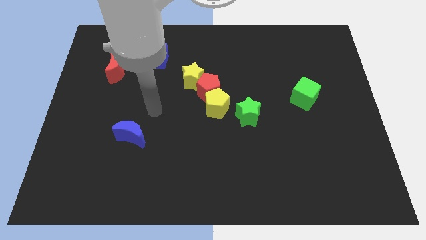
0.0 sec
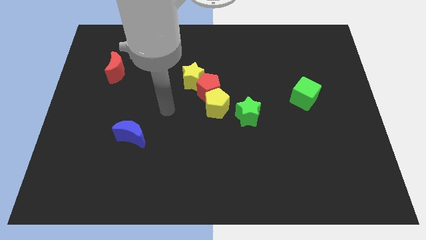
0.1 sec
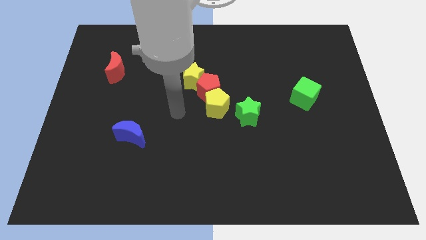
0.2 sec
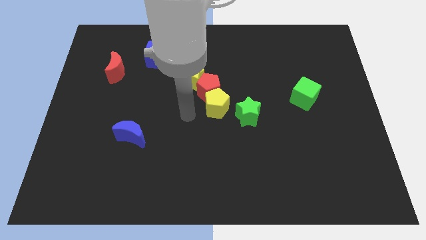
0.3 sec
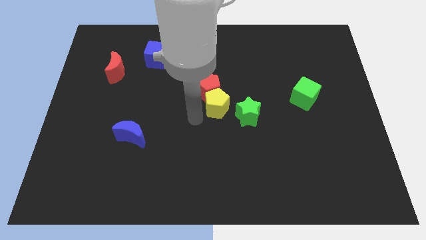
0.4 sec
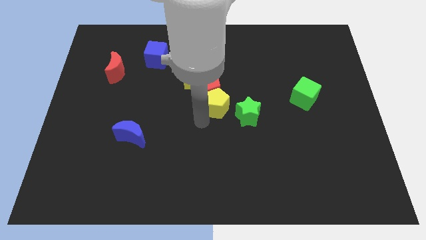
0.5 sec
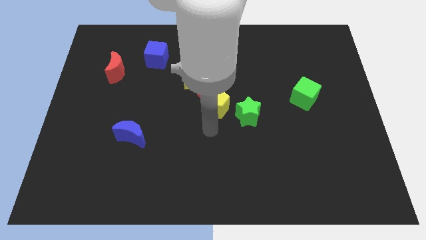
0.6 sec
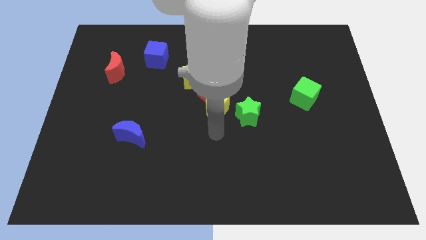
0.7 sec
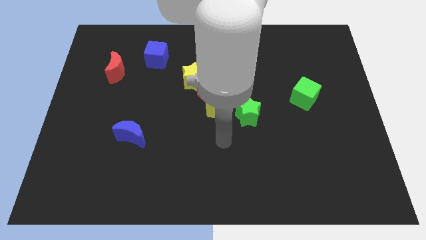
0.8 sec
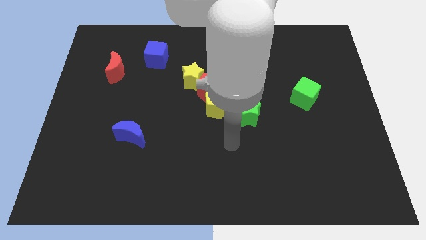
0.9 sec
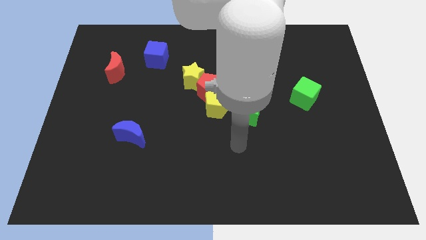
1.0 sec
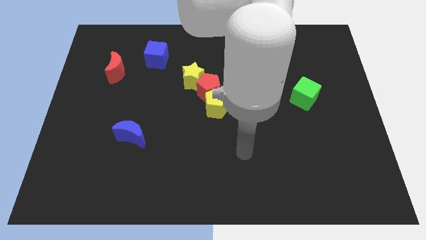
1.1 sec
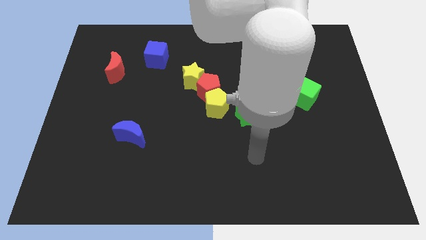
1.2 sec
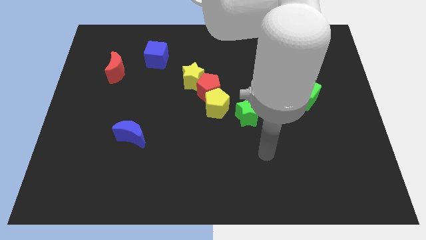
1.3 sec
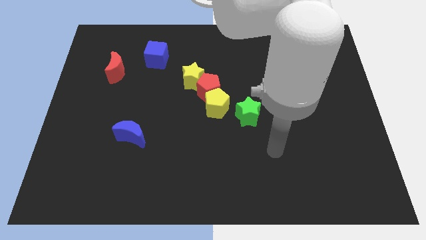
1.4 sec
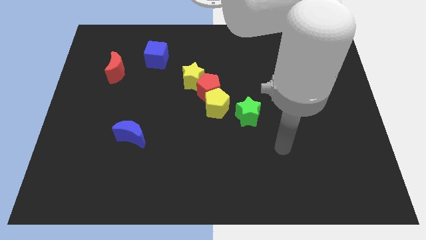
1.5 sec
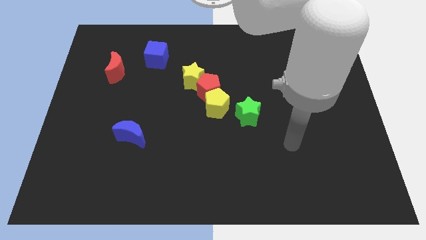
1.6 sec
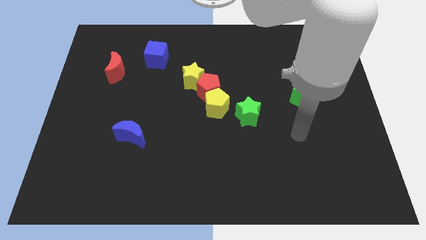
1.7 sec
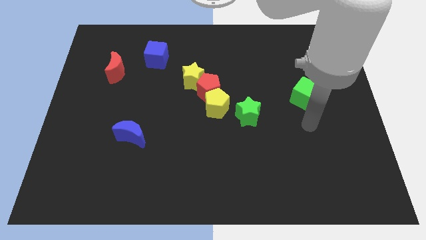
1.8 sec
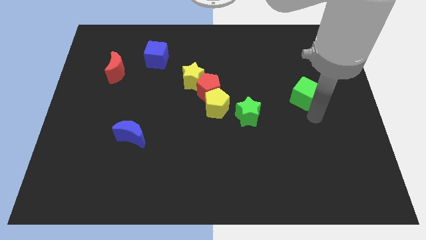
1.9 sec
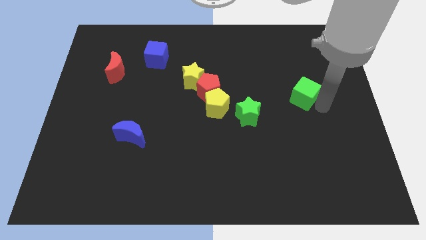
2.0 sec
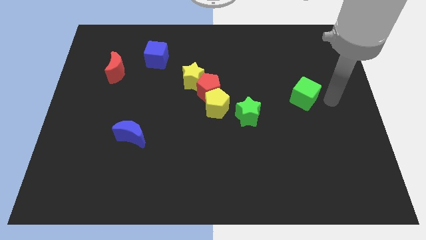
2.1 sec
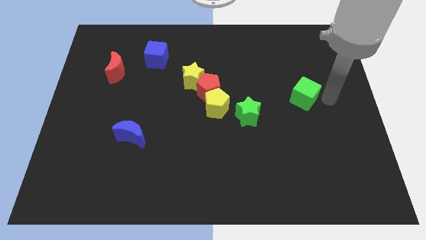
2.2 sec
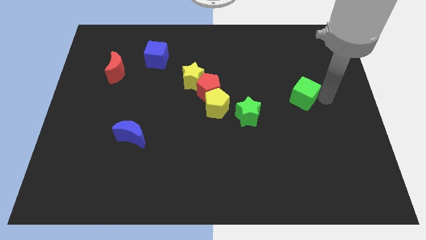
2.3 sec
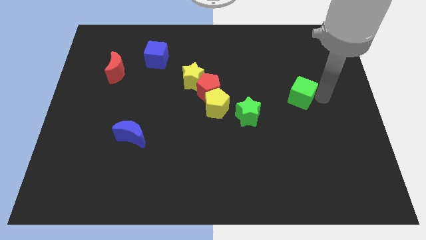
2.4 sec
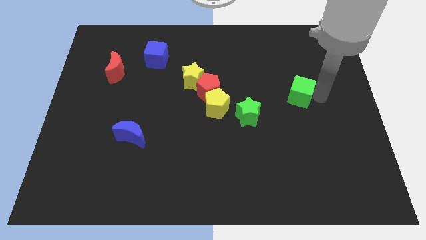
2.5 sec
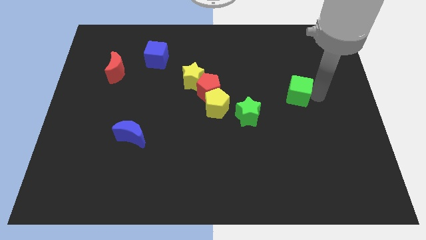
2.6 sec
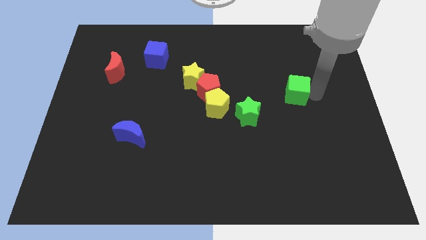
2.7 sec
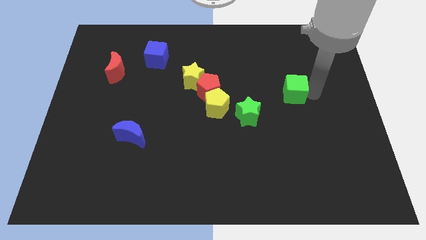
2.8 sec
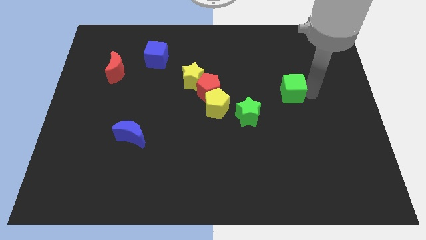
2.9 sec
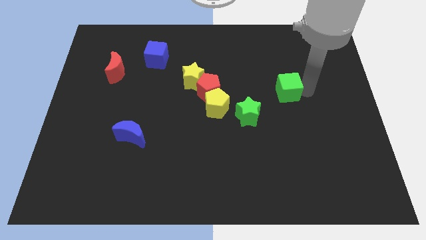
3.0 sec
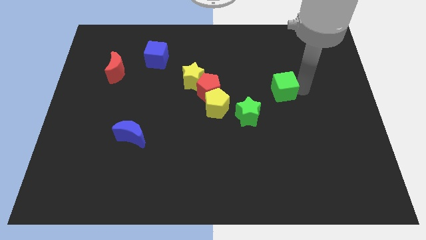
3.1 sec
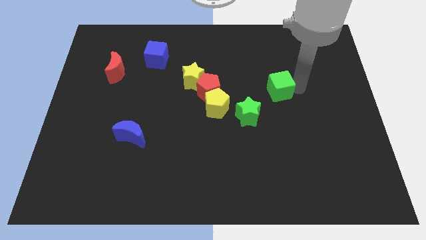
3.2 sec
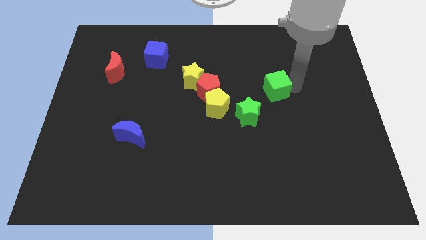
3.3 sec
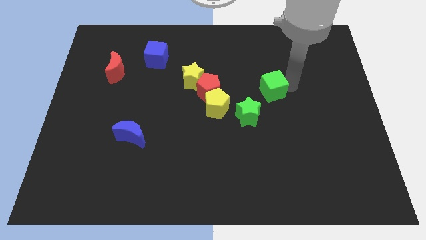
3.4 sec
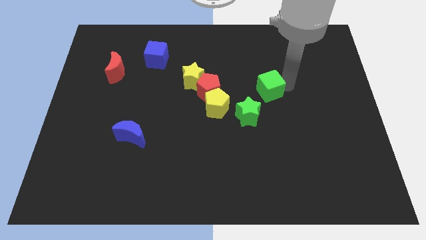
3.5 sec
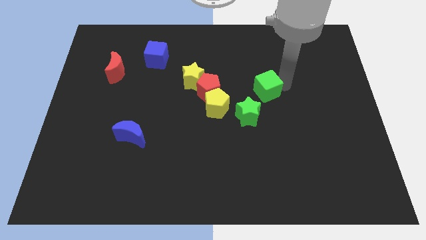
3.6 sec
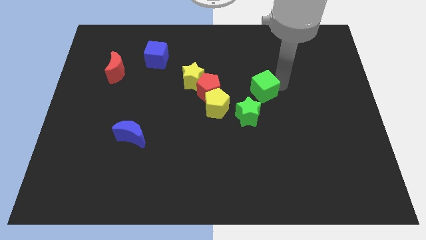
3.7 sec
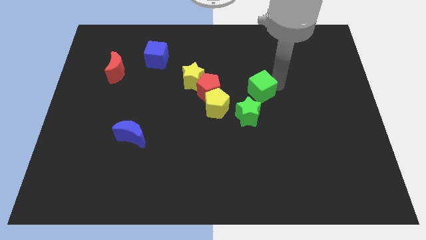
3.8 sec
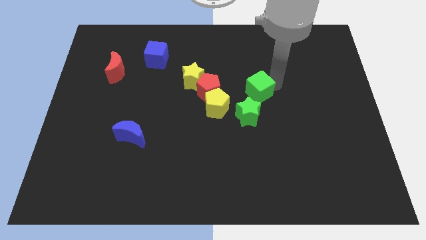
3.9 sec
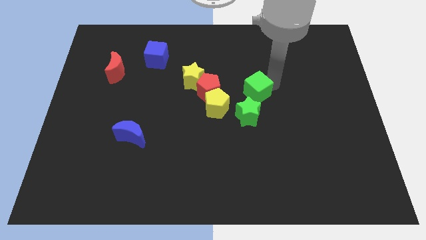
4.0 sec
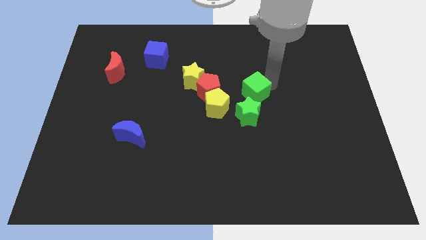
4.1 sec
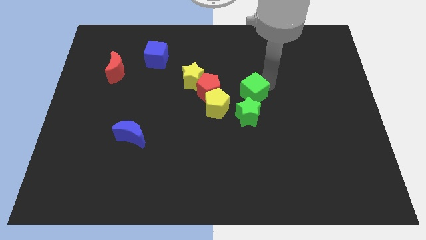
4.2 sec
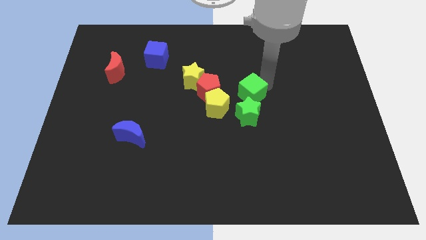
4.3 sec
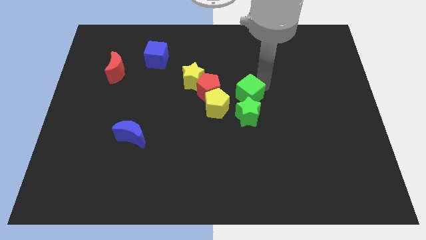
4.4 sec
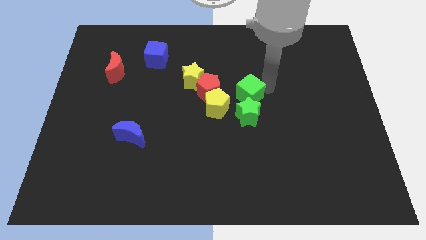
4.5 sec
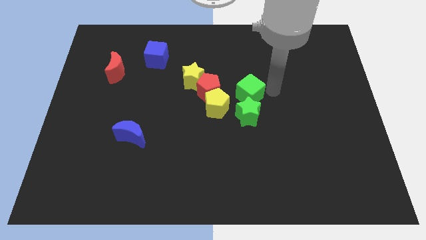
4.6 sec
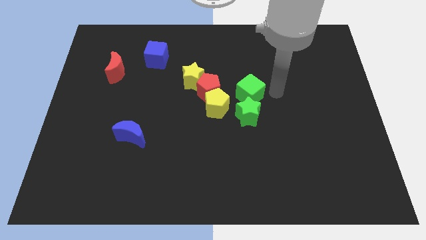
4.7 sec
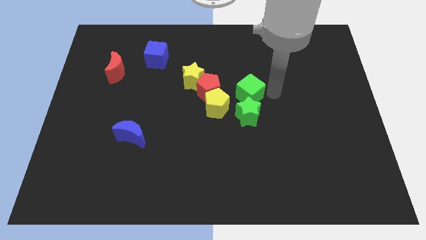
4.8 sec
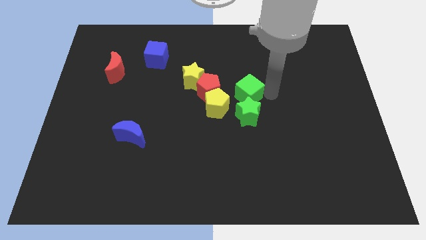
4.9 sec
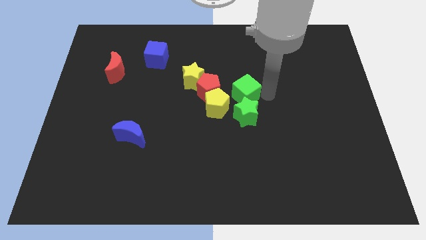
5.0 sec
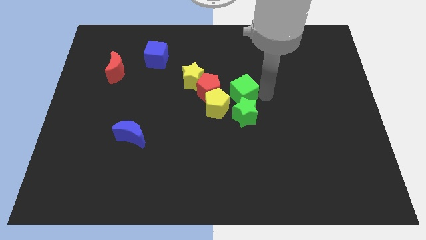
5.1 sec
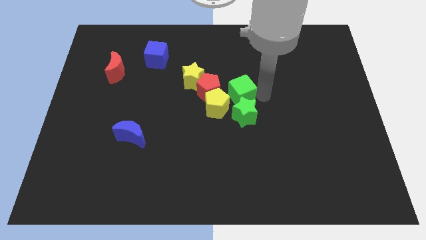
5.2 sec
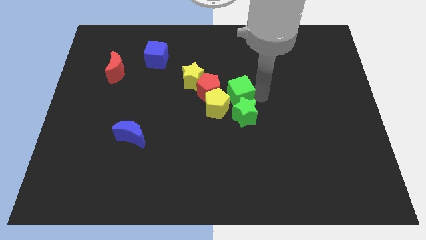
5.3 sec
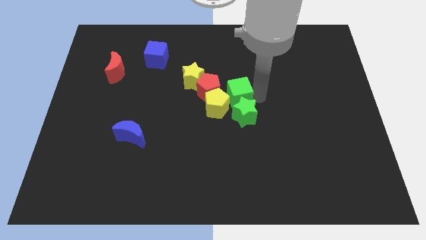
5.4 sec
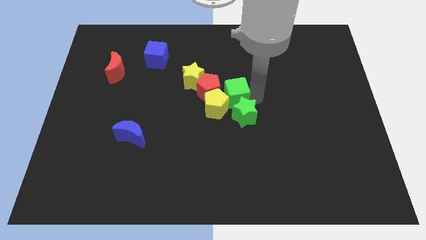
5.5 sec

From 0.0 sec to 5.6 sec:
move the green cube next to the yellow pentagon

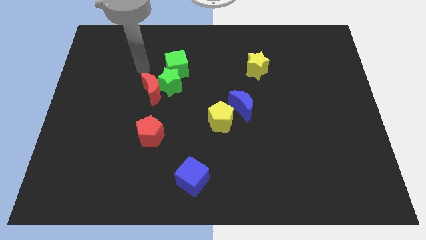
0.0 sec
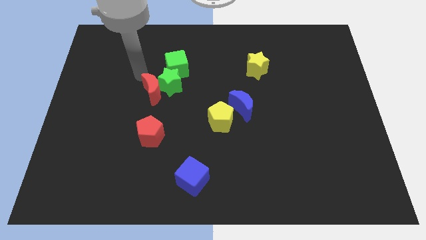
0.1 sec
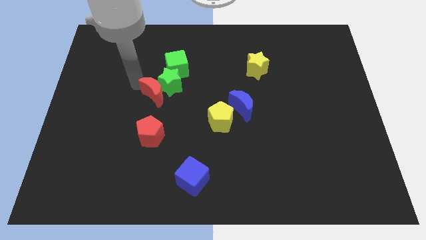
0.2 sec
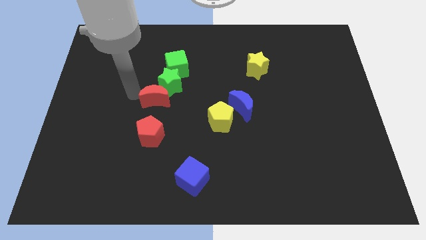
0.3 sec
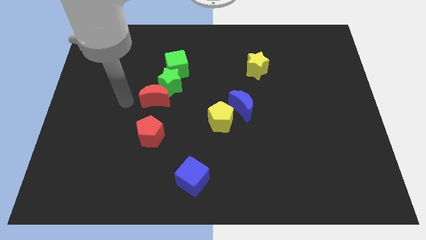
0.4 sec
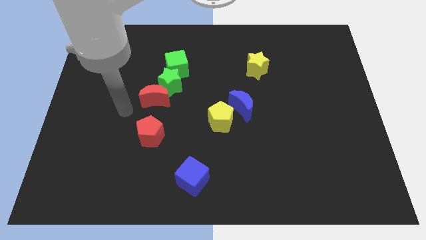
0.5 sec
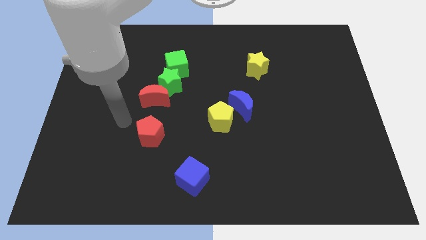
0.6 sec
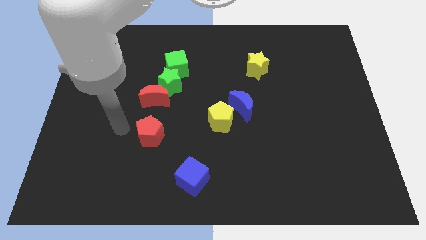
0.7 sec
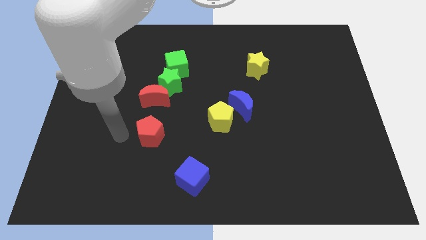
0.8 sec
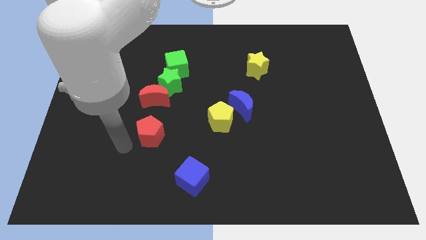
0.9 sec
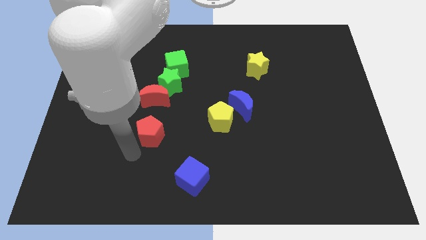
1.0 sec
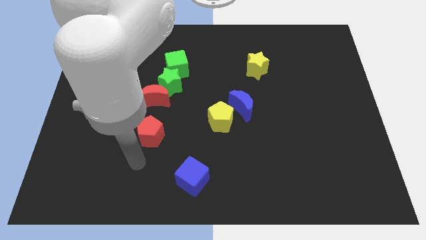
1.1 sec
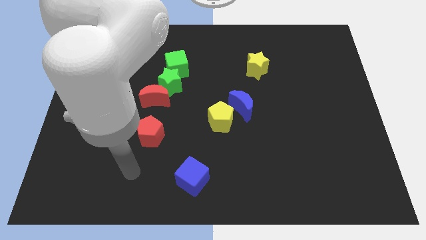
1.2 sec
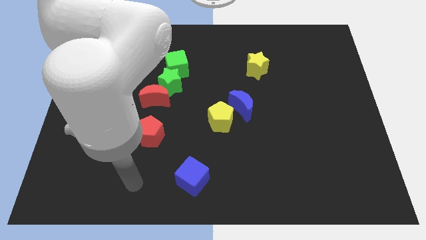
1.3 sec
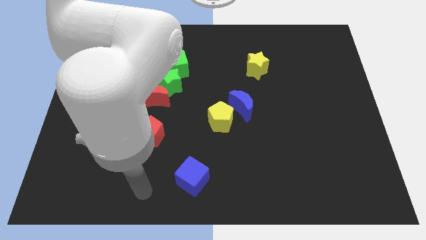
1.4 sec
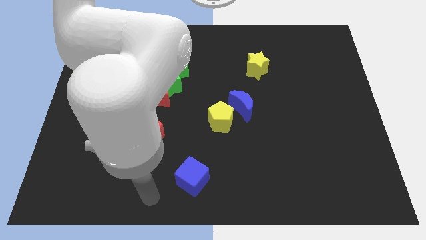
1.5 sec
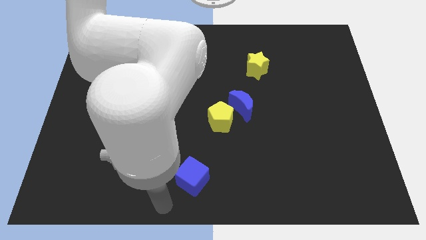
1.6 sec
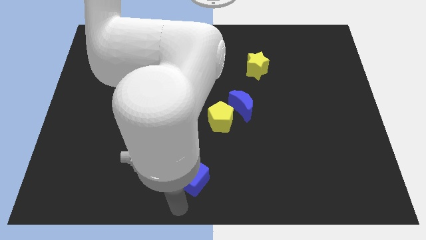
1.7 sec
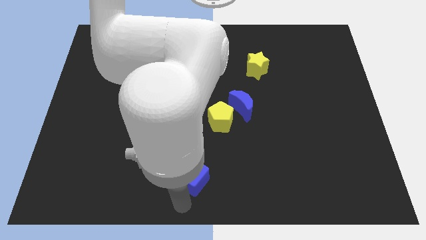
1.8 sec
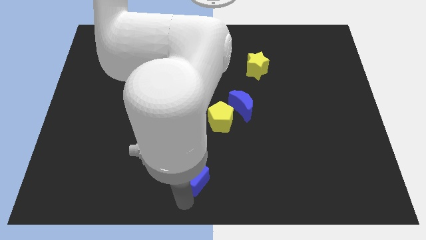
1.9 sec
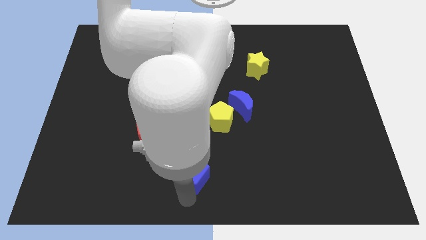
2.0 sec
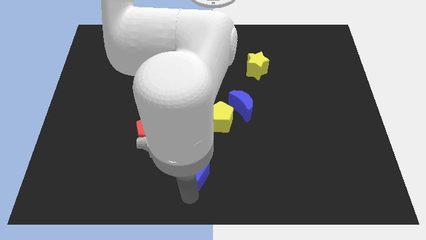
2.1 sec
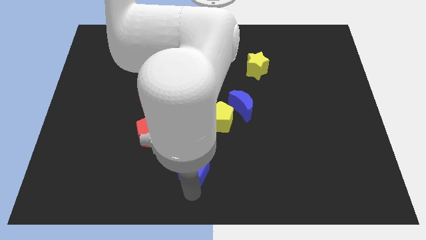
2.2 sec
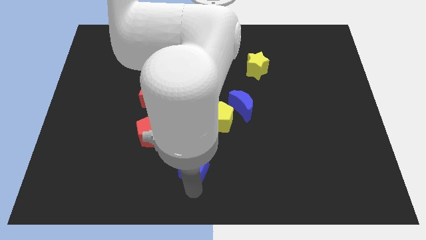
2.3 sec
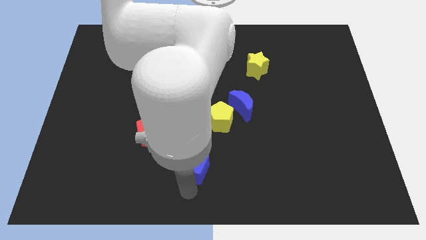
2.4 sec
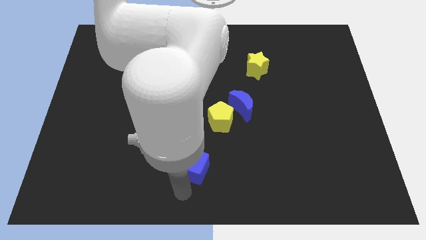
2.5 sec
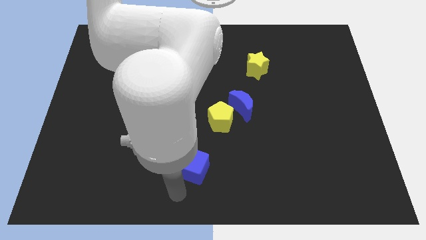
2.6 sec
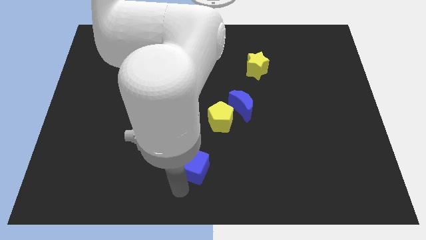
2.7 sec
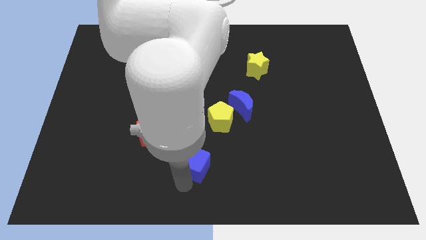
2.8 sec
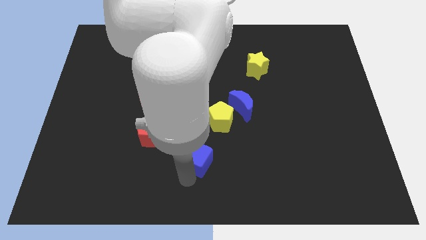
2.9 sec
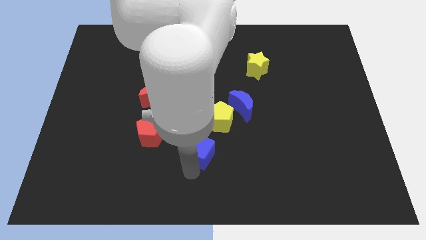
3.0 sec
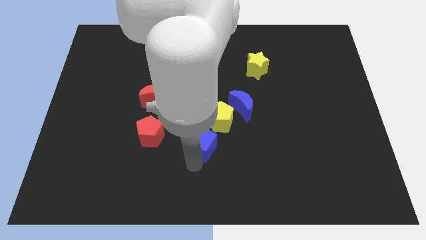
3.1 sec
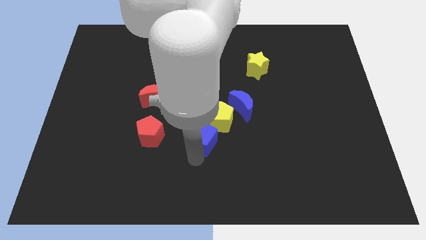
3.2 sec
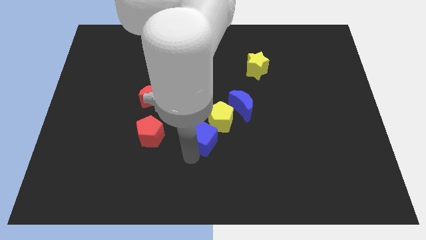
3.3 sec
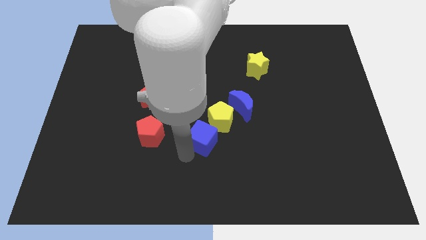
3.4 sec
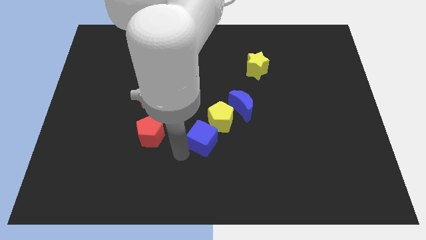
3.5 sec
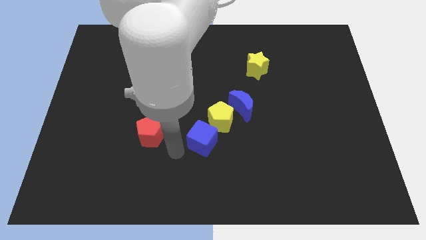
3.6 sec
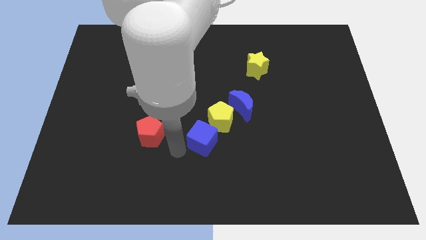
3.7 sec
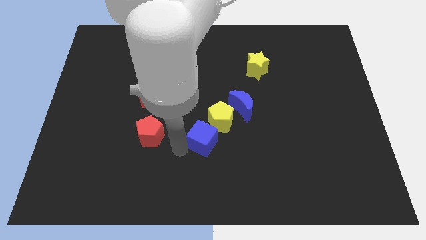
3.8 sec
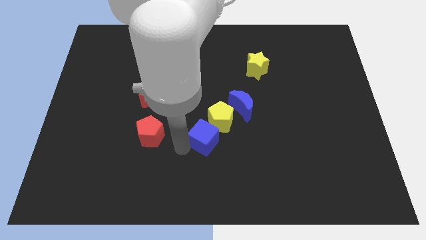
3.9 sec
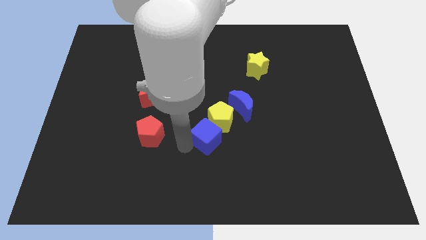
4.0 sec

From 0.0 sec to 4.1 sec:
push the blue cube to the yellow pentagon
